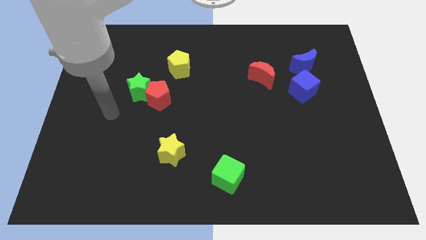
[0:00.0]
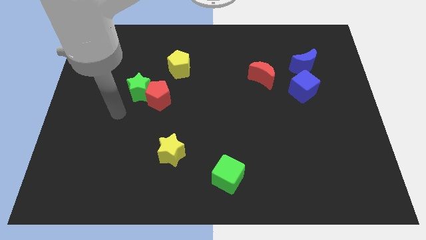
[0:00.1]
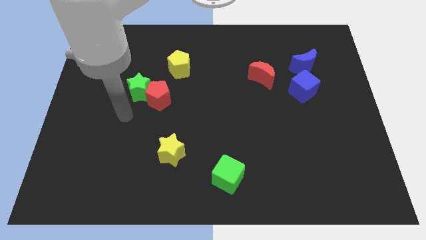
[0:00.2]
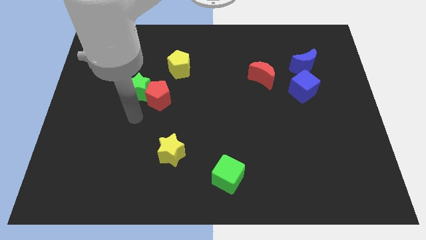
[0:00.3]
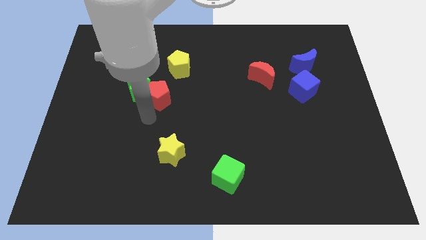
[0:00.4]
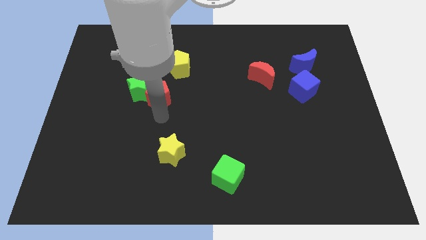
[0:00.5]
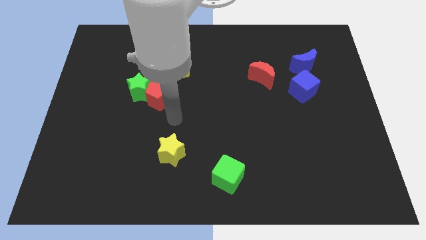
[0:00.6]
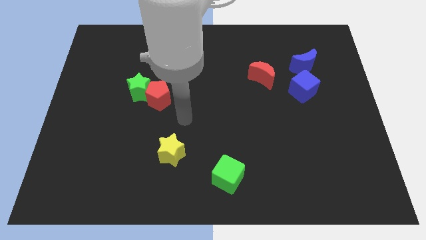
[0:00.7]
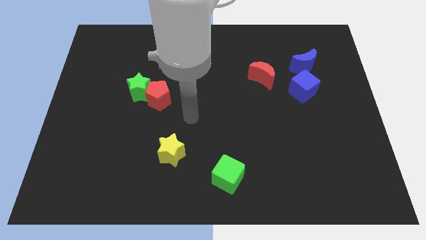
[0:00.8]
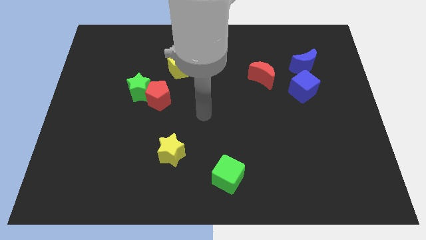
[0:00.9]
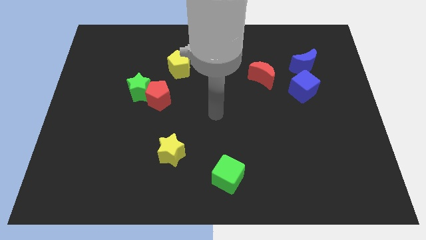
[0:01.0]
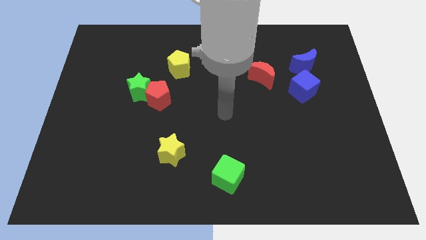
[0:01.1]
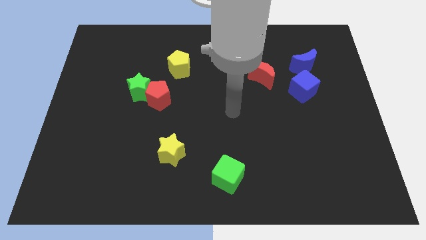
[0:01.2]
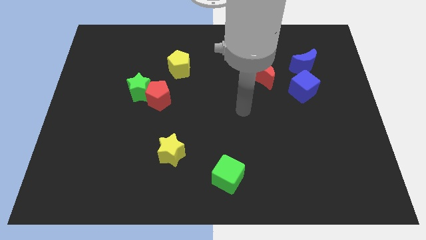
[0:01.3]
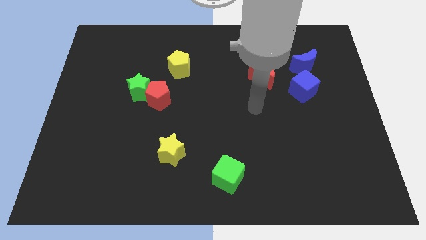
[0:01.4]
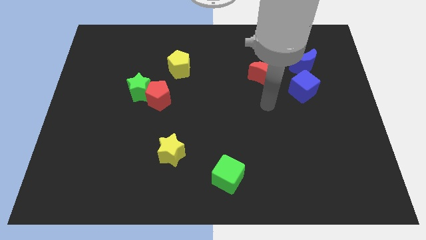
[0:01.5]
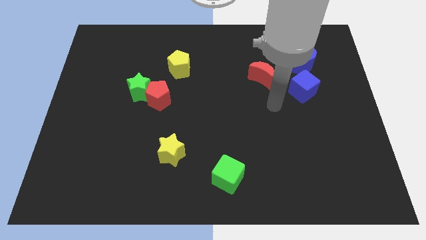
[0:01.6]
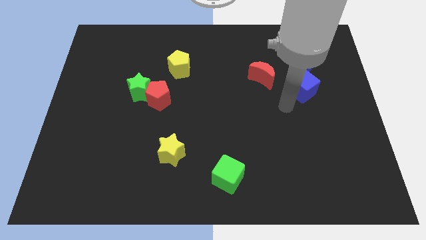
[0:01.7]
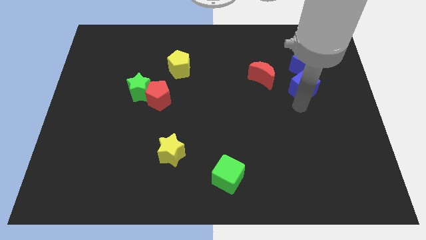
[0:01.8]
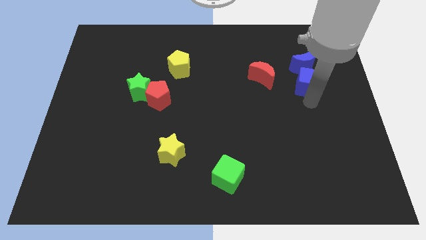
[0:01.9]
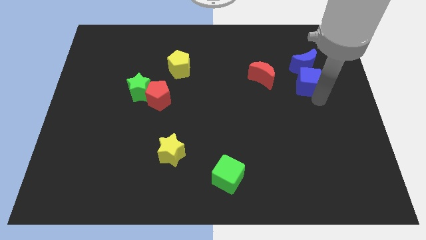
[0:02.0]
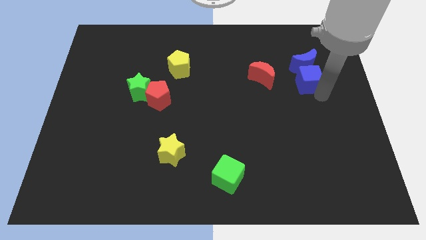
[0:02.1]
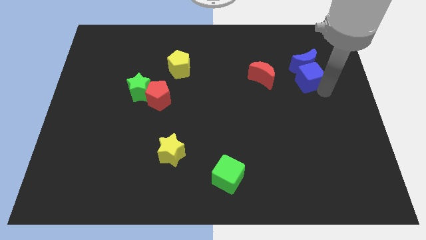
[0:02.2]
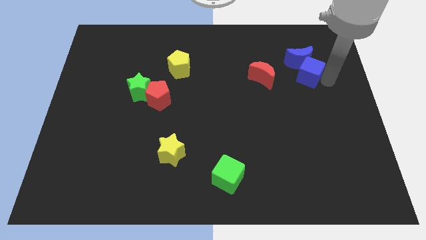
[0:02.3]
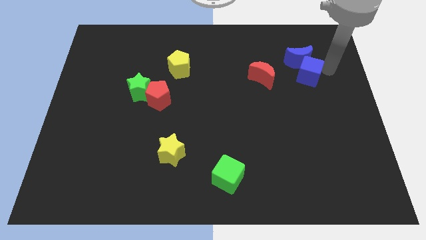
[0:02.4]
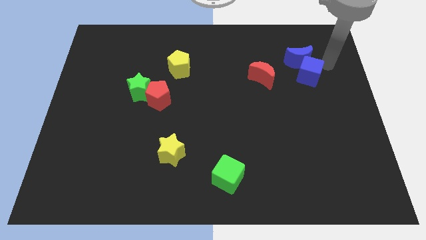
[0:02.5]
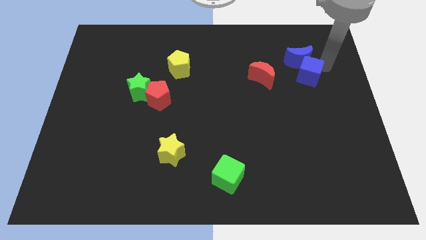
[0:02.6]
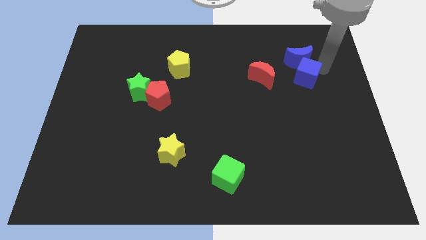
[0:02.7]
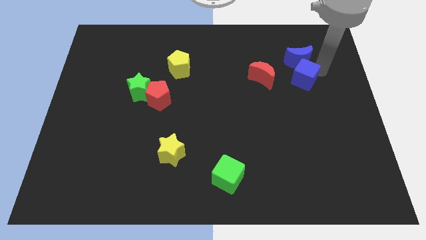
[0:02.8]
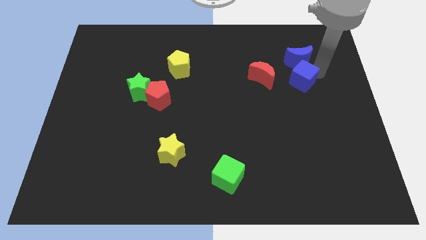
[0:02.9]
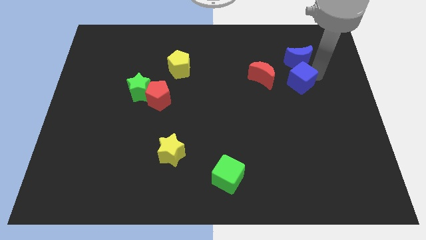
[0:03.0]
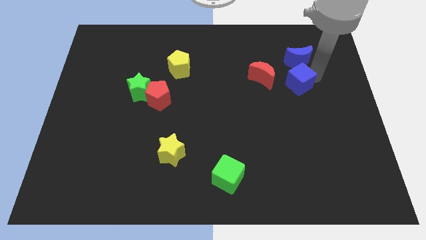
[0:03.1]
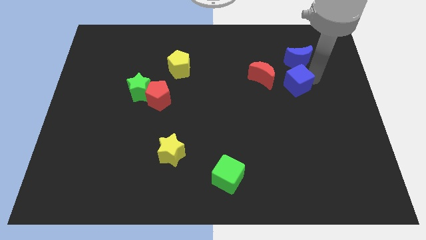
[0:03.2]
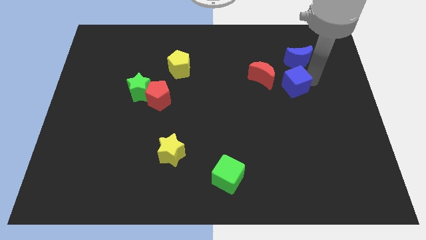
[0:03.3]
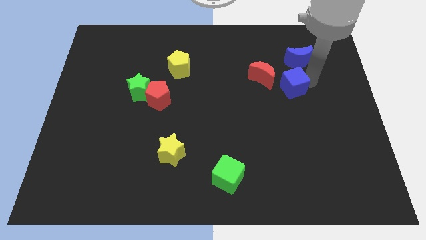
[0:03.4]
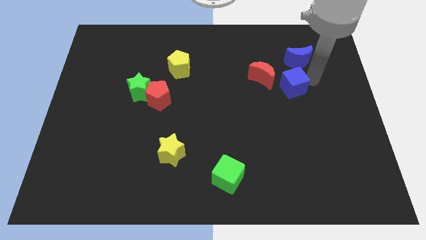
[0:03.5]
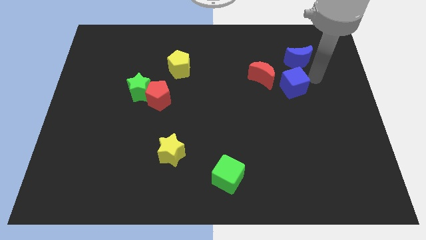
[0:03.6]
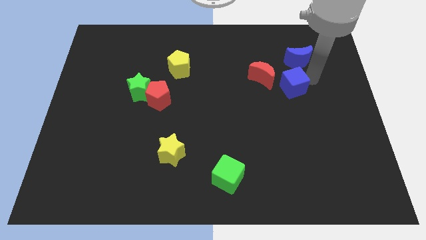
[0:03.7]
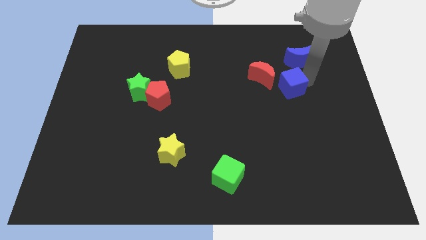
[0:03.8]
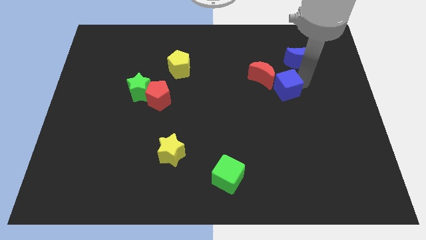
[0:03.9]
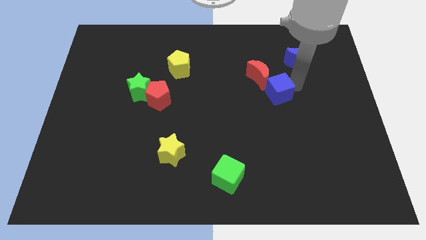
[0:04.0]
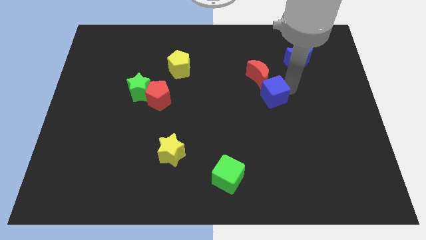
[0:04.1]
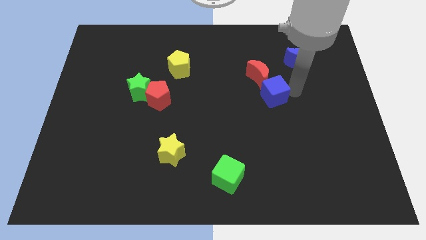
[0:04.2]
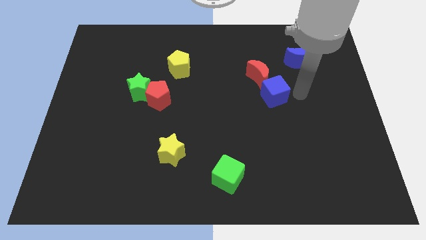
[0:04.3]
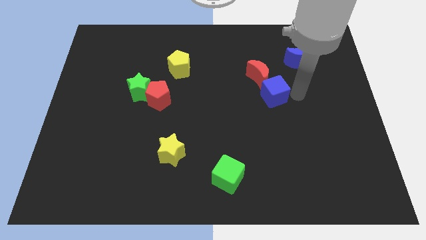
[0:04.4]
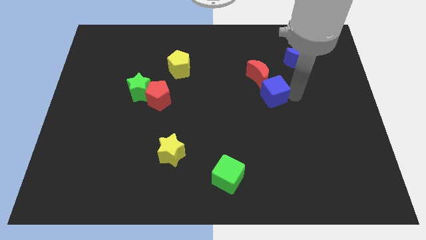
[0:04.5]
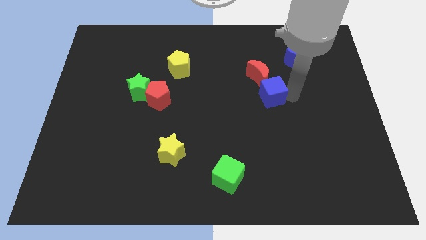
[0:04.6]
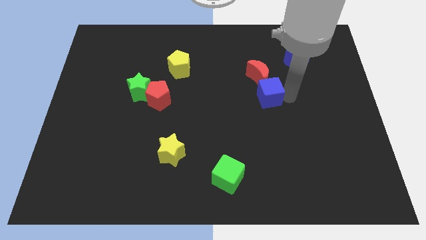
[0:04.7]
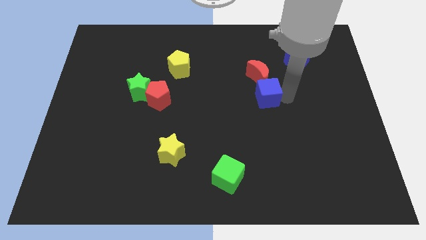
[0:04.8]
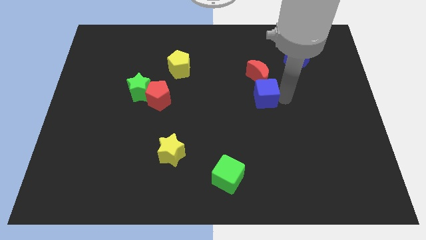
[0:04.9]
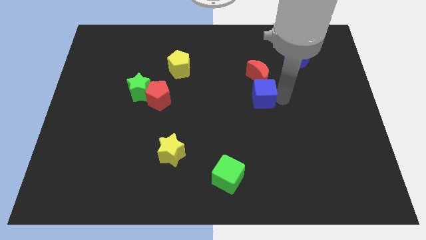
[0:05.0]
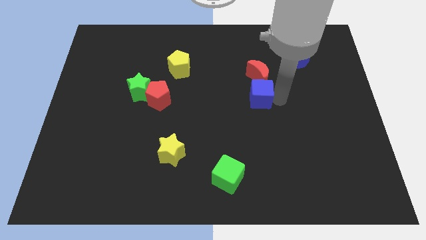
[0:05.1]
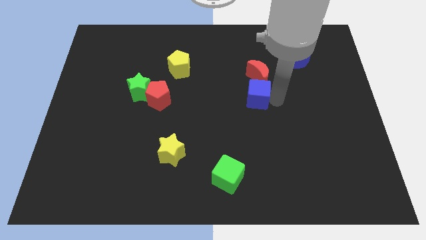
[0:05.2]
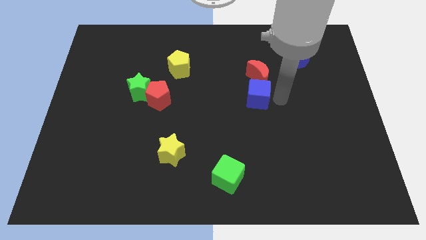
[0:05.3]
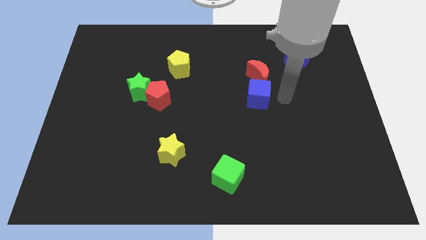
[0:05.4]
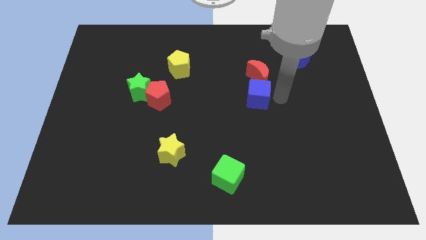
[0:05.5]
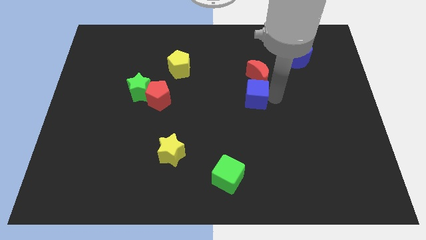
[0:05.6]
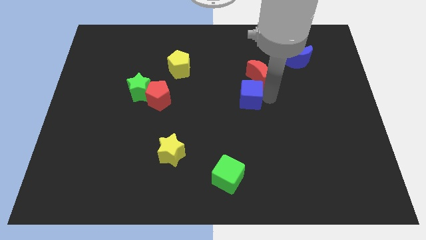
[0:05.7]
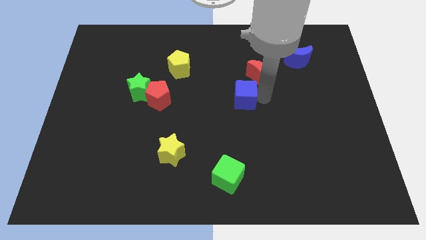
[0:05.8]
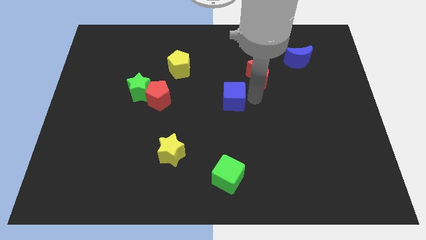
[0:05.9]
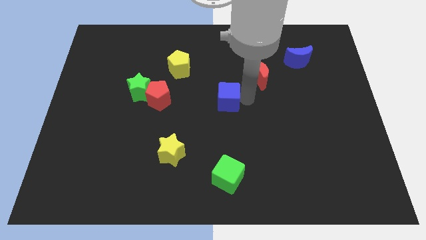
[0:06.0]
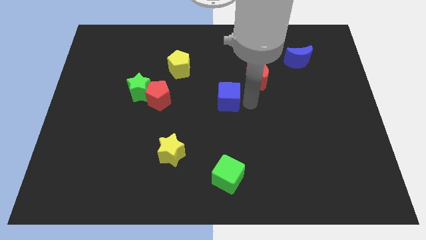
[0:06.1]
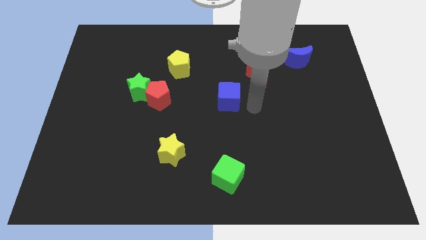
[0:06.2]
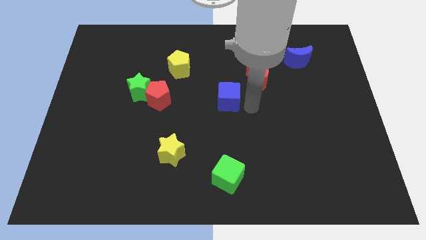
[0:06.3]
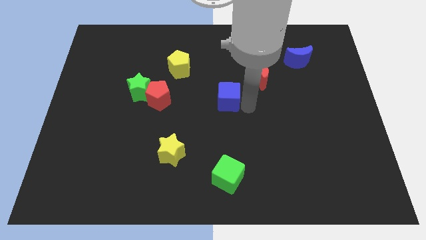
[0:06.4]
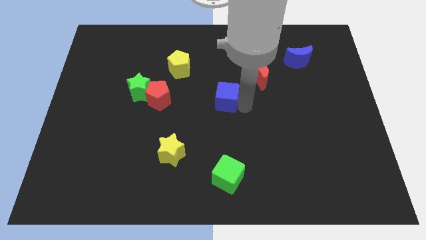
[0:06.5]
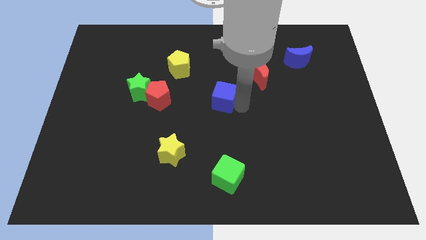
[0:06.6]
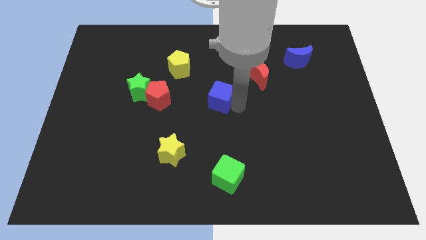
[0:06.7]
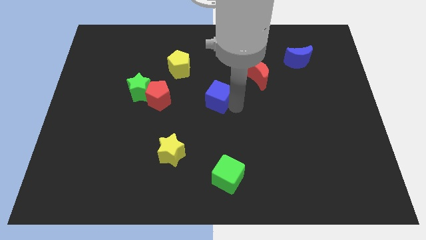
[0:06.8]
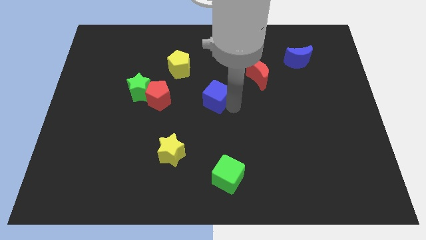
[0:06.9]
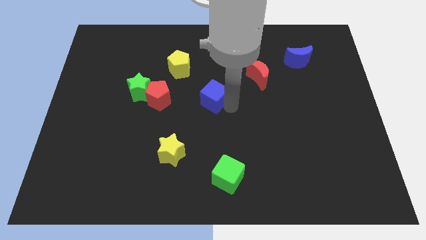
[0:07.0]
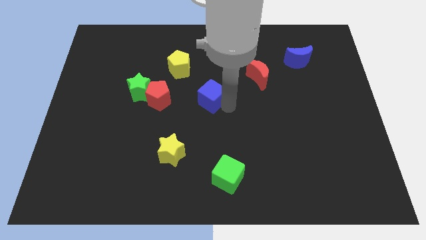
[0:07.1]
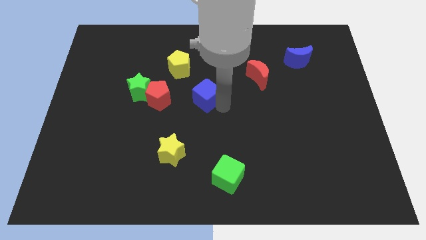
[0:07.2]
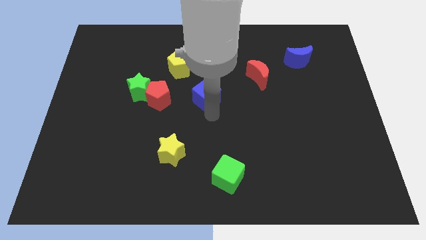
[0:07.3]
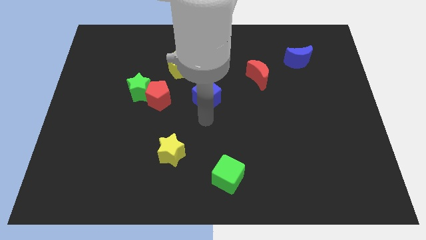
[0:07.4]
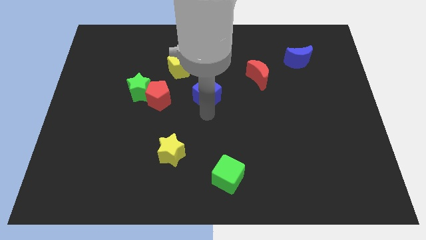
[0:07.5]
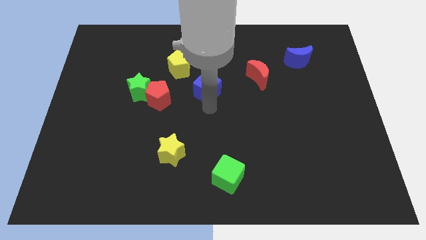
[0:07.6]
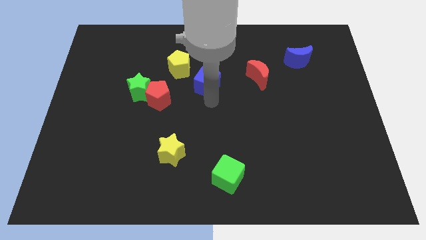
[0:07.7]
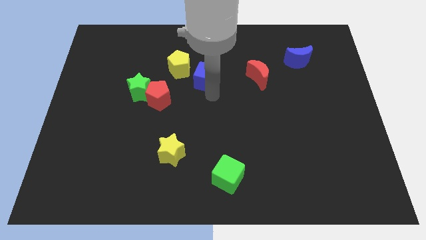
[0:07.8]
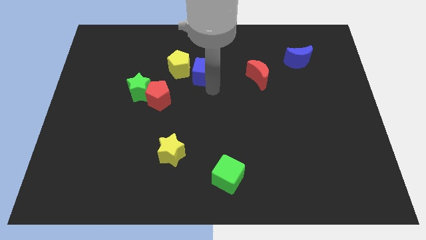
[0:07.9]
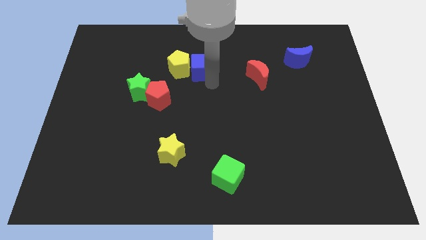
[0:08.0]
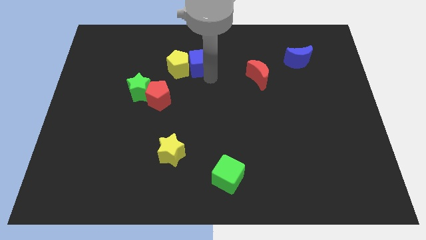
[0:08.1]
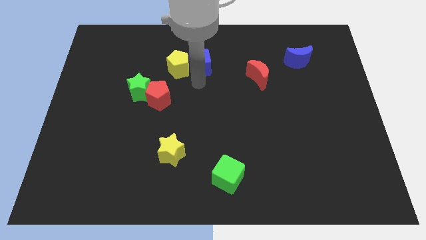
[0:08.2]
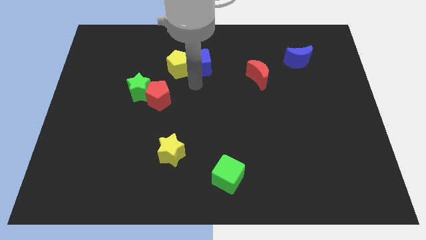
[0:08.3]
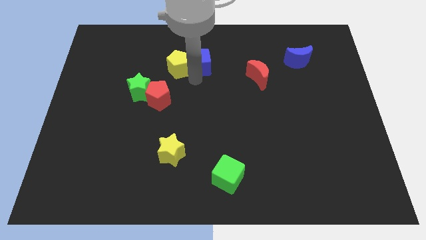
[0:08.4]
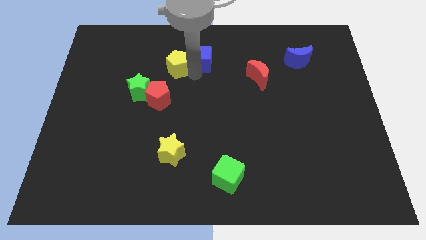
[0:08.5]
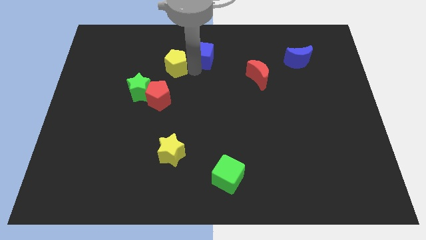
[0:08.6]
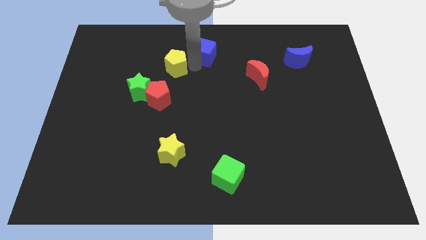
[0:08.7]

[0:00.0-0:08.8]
slide the blue cube to the top side
